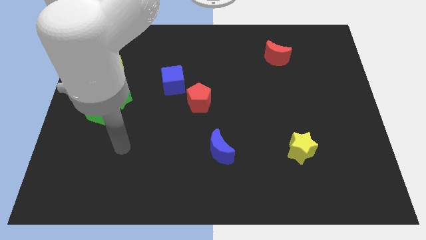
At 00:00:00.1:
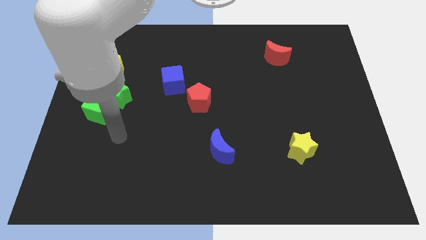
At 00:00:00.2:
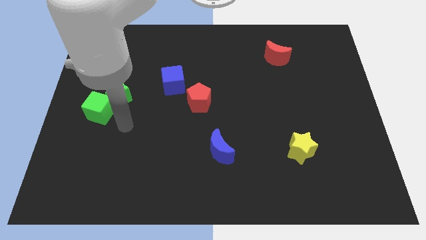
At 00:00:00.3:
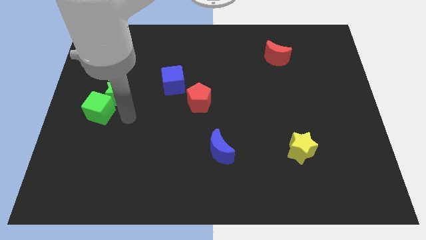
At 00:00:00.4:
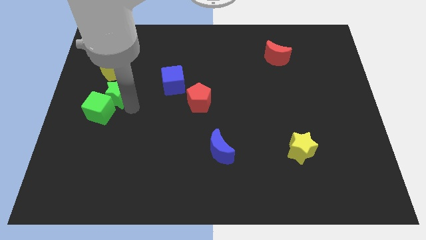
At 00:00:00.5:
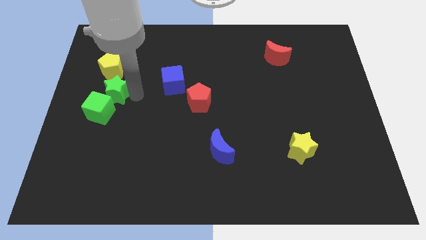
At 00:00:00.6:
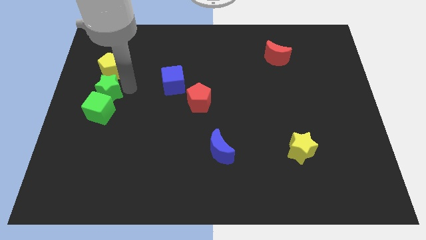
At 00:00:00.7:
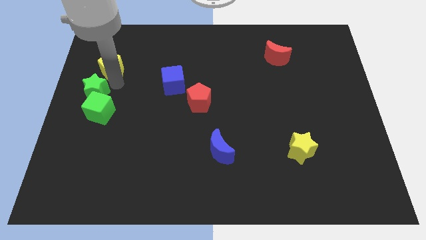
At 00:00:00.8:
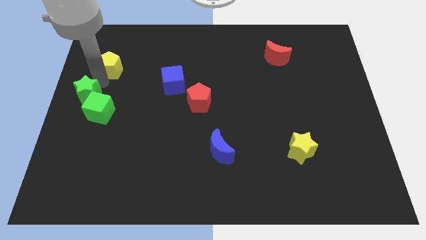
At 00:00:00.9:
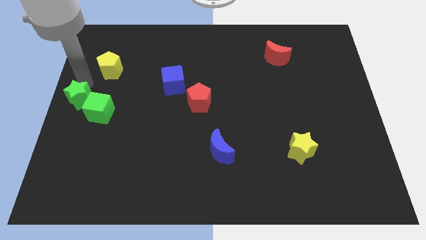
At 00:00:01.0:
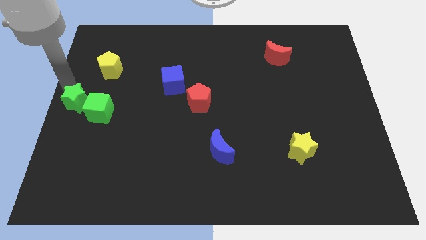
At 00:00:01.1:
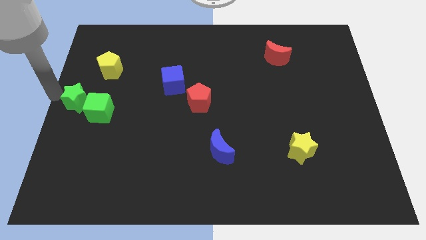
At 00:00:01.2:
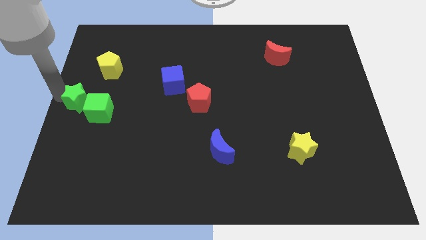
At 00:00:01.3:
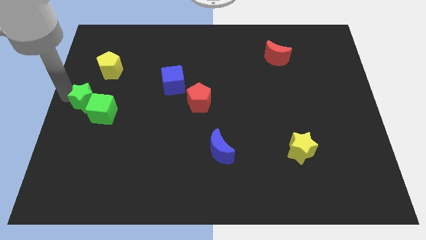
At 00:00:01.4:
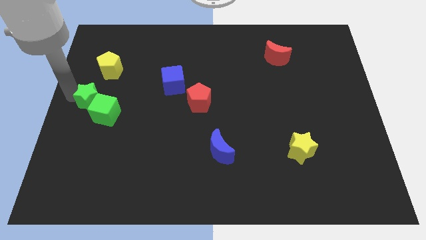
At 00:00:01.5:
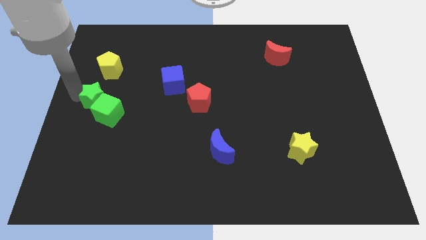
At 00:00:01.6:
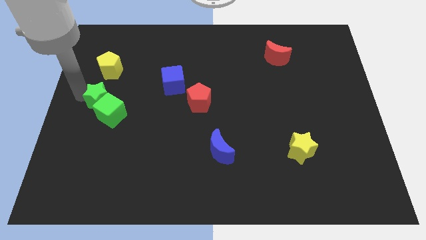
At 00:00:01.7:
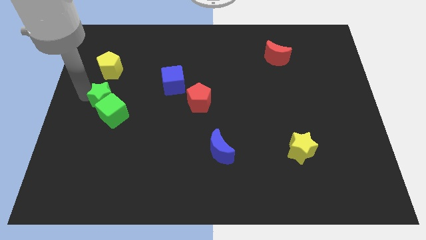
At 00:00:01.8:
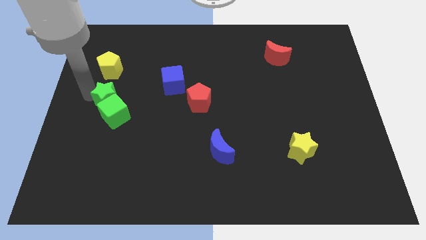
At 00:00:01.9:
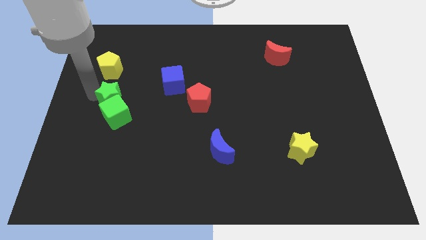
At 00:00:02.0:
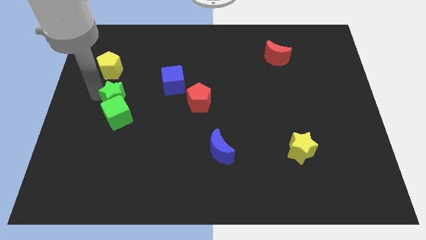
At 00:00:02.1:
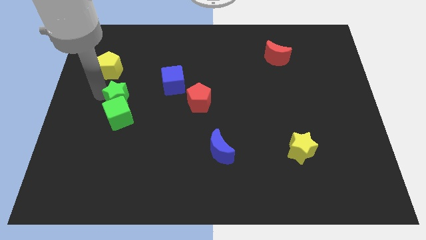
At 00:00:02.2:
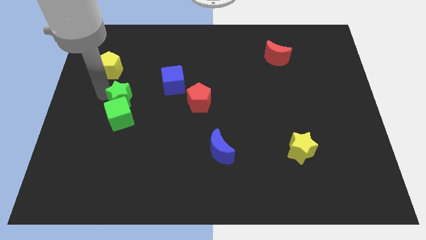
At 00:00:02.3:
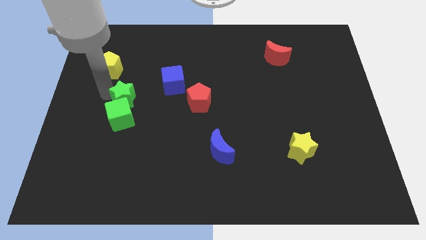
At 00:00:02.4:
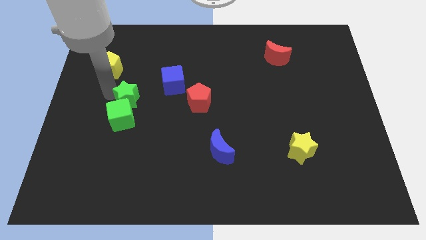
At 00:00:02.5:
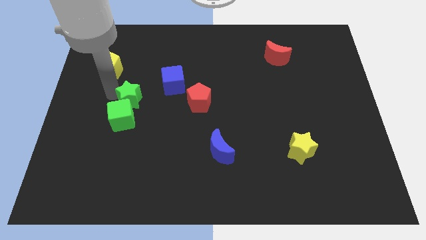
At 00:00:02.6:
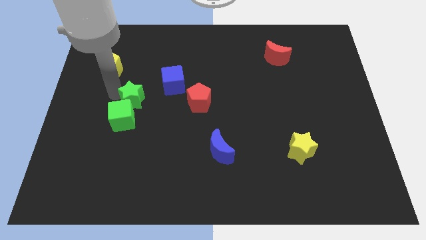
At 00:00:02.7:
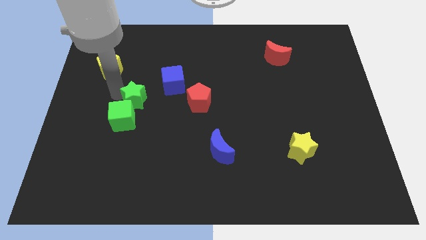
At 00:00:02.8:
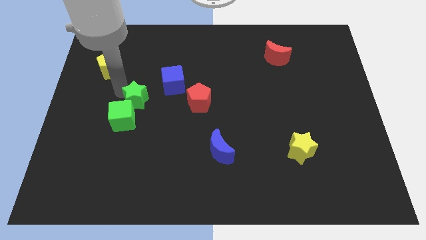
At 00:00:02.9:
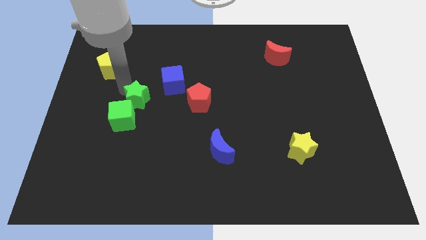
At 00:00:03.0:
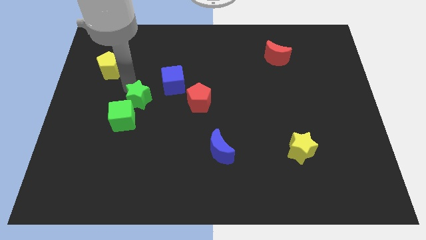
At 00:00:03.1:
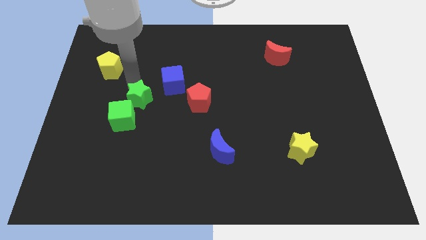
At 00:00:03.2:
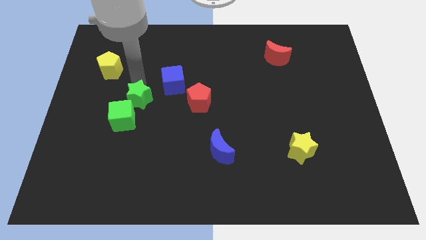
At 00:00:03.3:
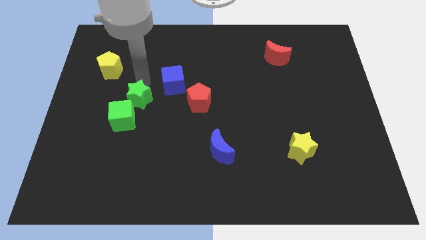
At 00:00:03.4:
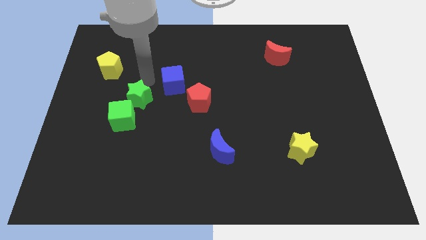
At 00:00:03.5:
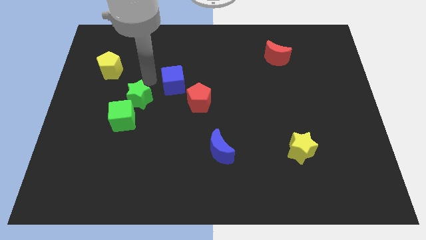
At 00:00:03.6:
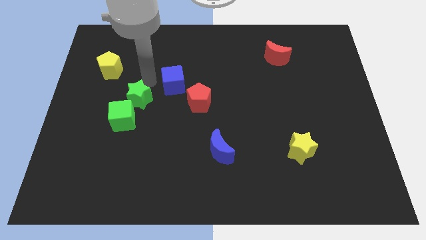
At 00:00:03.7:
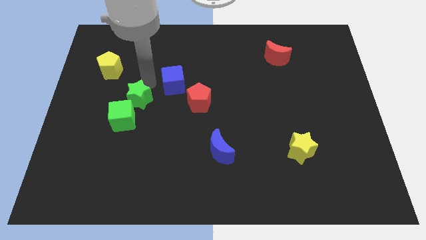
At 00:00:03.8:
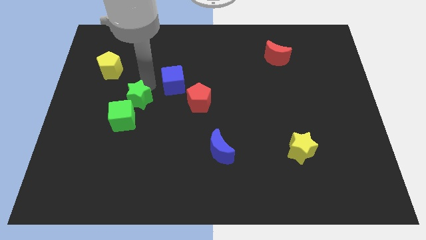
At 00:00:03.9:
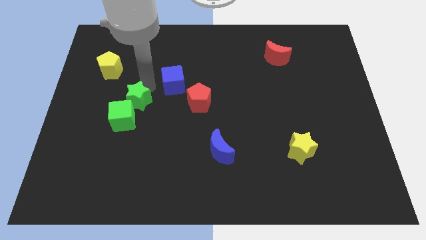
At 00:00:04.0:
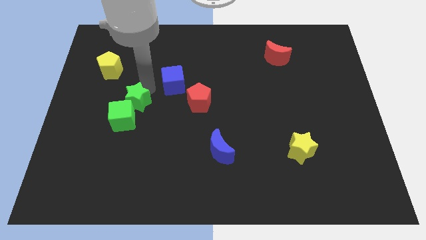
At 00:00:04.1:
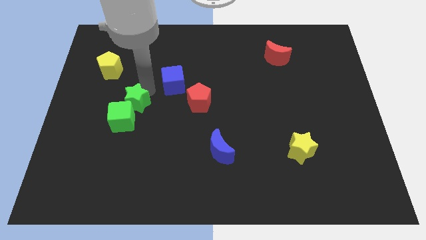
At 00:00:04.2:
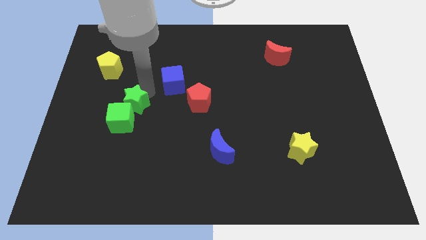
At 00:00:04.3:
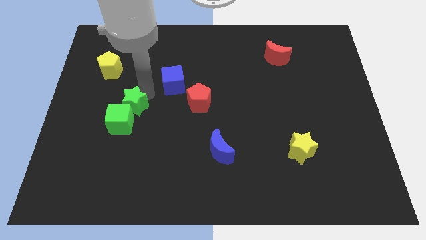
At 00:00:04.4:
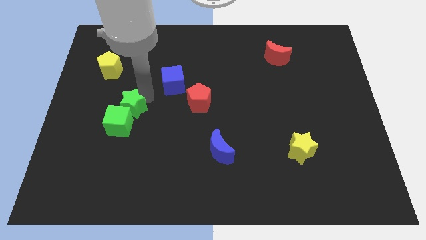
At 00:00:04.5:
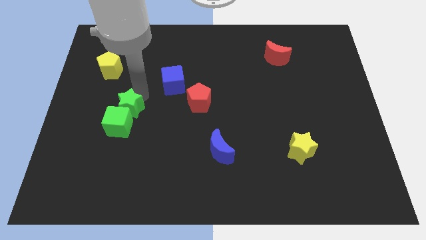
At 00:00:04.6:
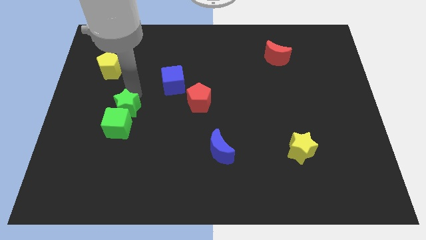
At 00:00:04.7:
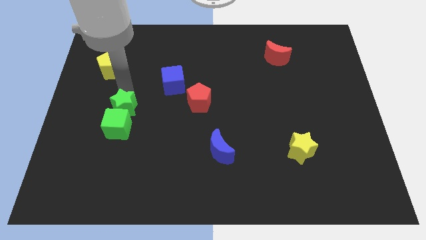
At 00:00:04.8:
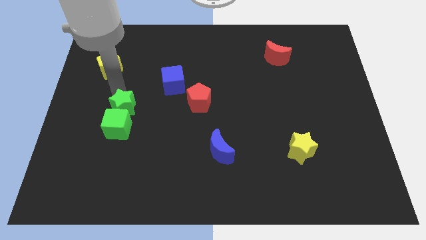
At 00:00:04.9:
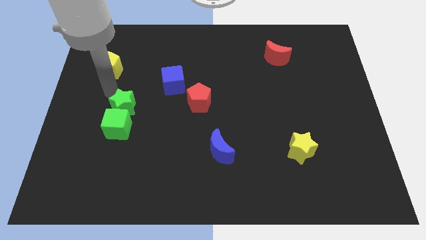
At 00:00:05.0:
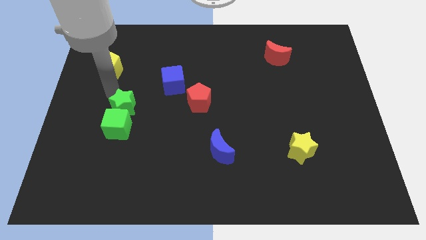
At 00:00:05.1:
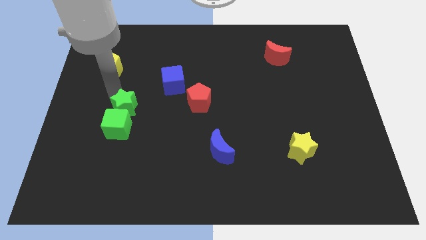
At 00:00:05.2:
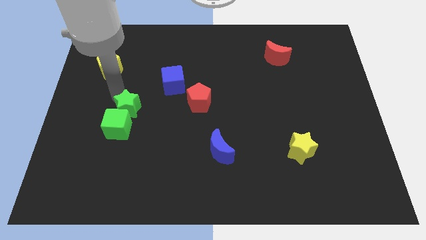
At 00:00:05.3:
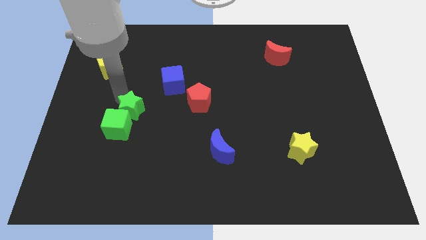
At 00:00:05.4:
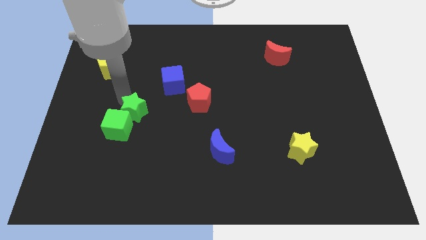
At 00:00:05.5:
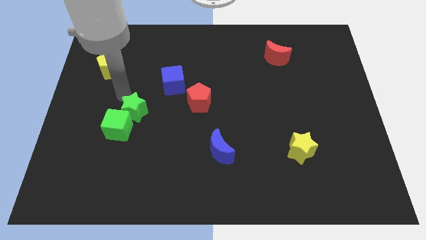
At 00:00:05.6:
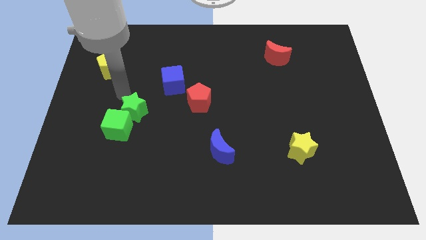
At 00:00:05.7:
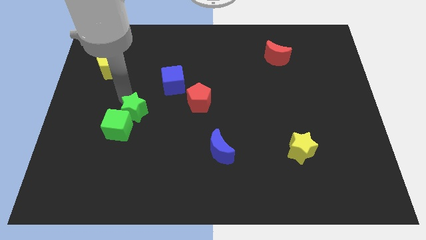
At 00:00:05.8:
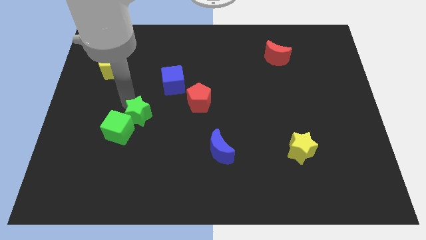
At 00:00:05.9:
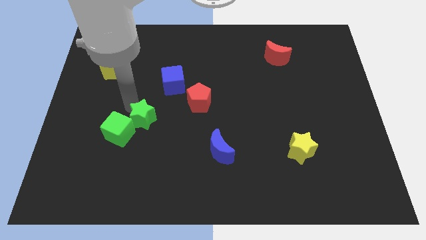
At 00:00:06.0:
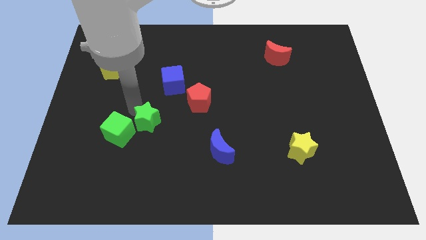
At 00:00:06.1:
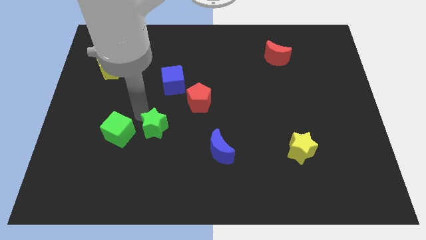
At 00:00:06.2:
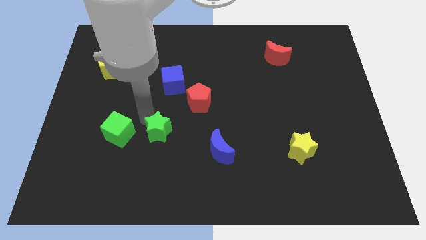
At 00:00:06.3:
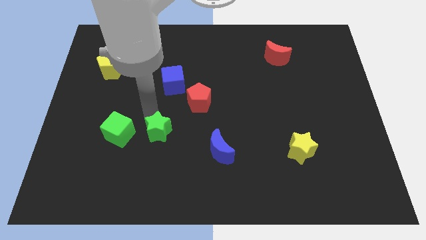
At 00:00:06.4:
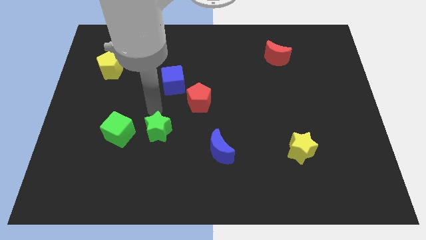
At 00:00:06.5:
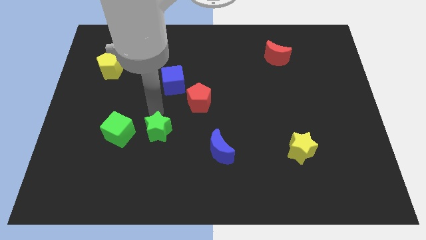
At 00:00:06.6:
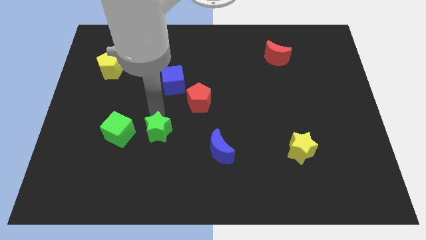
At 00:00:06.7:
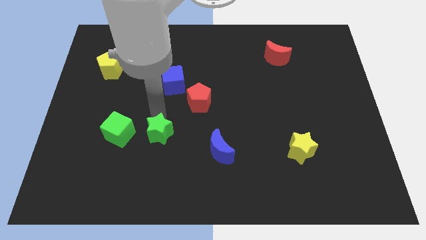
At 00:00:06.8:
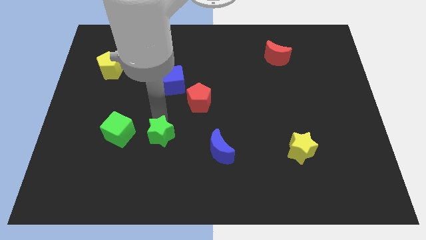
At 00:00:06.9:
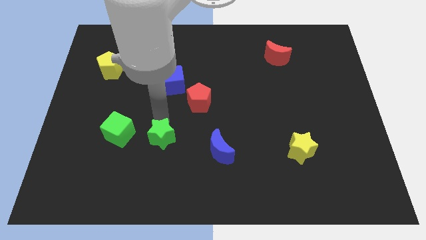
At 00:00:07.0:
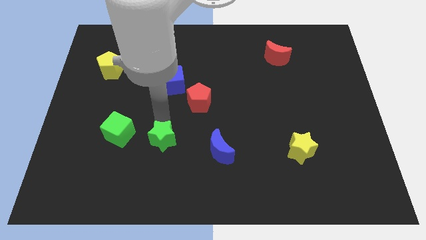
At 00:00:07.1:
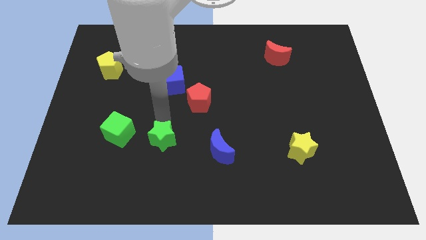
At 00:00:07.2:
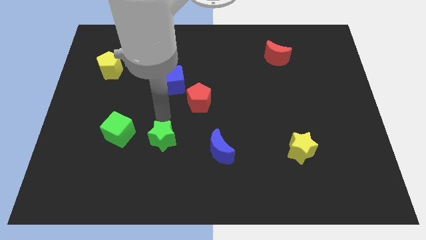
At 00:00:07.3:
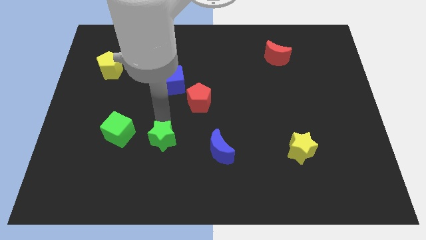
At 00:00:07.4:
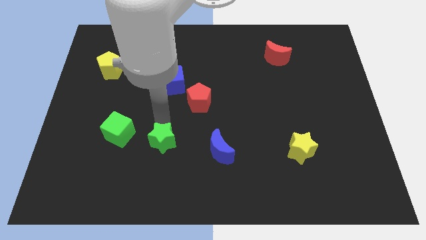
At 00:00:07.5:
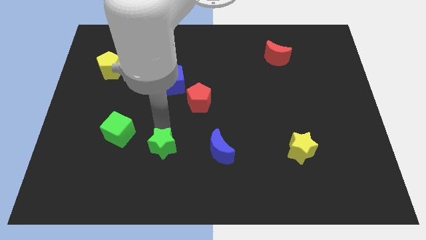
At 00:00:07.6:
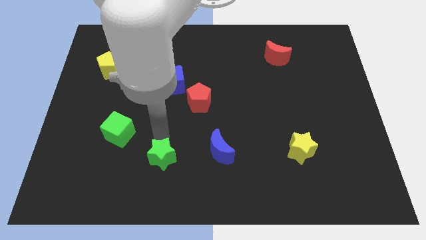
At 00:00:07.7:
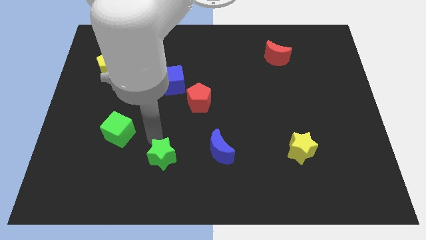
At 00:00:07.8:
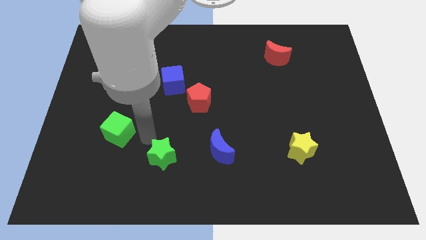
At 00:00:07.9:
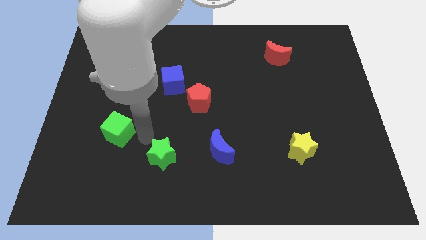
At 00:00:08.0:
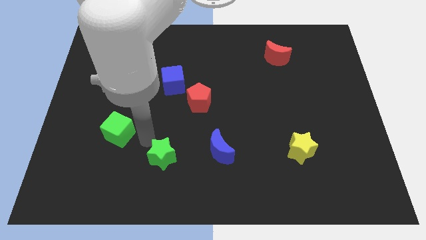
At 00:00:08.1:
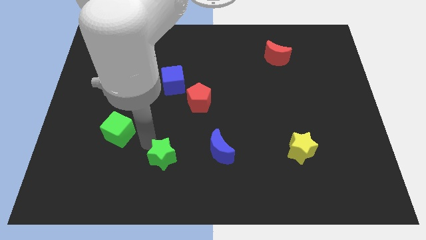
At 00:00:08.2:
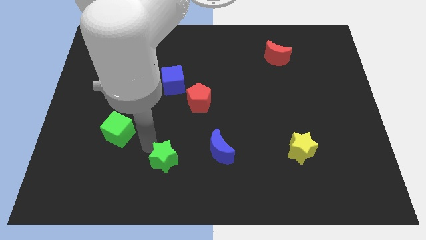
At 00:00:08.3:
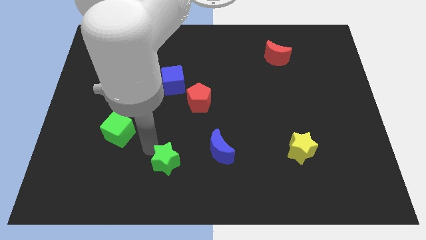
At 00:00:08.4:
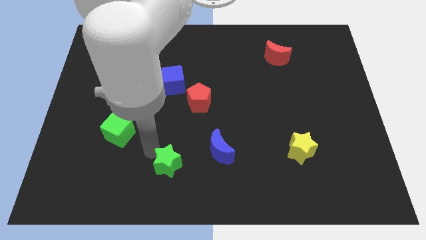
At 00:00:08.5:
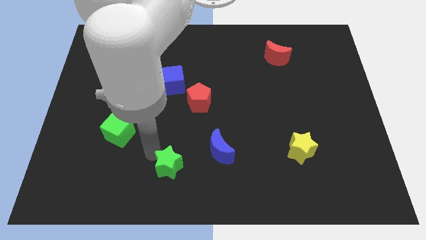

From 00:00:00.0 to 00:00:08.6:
slide the green star to the bottom side

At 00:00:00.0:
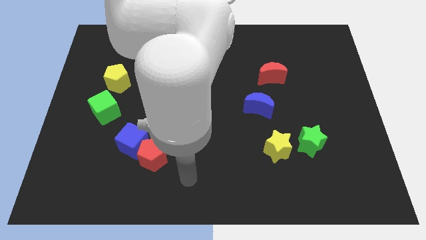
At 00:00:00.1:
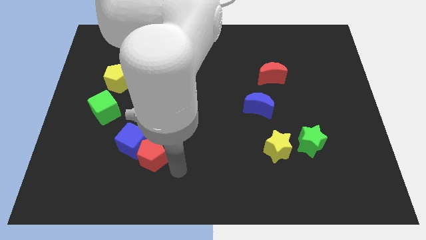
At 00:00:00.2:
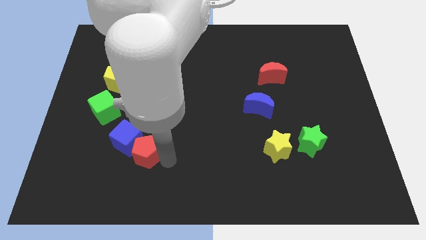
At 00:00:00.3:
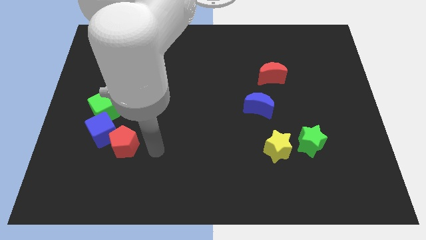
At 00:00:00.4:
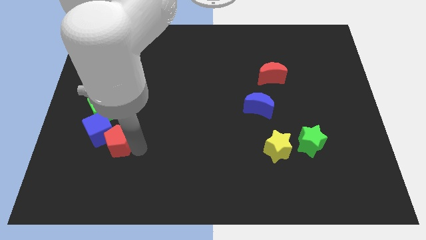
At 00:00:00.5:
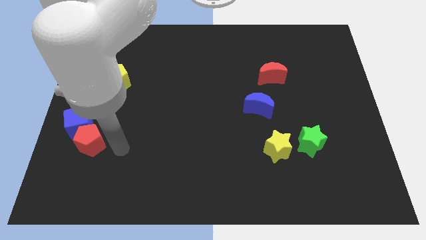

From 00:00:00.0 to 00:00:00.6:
move the blue cube to the left side of the board
